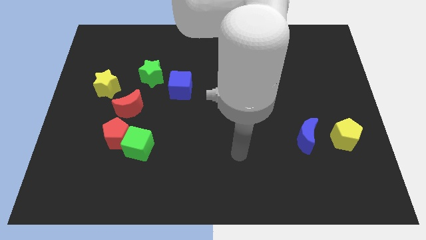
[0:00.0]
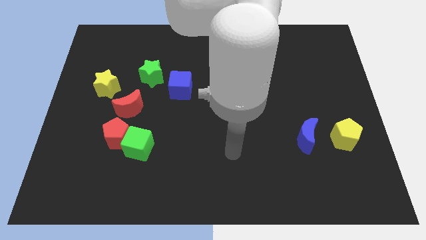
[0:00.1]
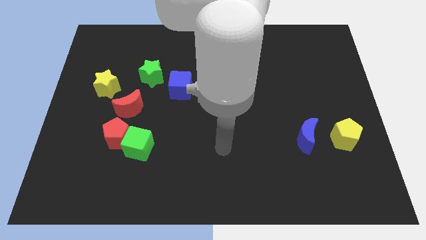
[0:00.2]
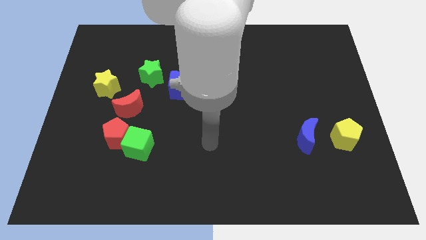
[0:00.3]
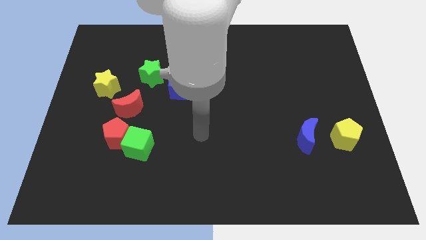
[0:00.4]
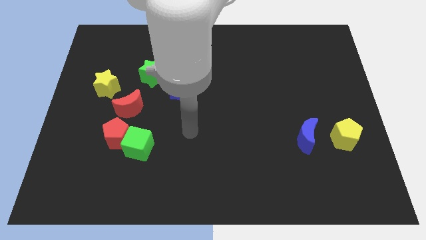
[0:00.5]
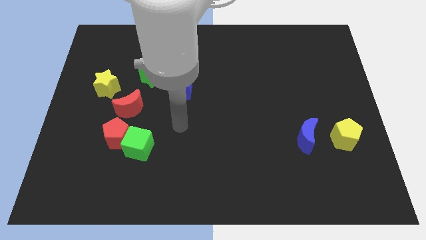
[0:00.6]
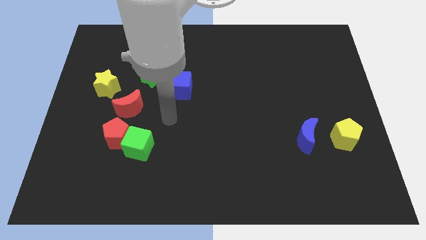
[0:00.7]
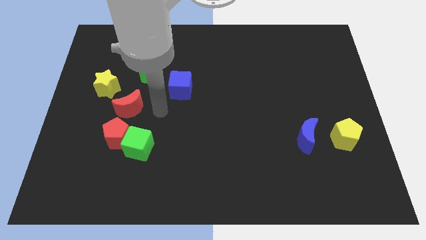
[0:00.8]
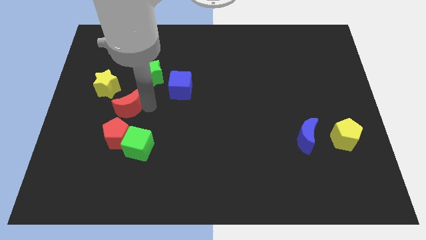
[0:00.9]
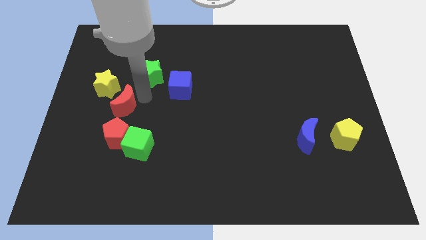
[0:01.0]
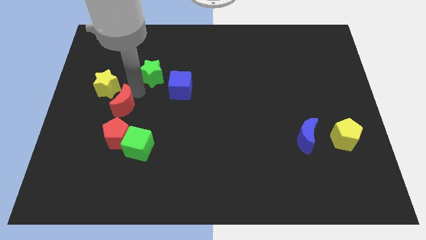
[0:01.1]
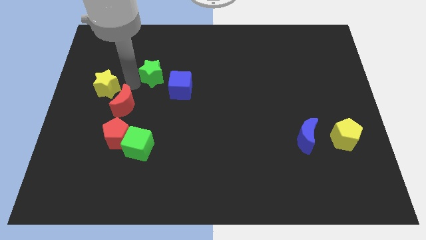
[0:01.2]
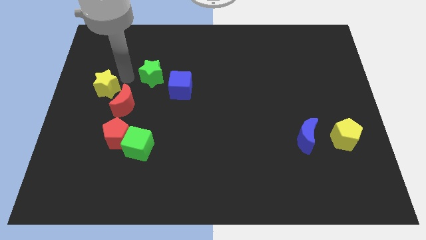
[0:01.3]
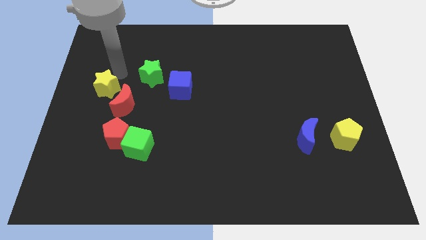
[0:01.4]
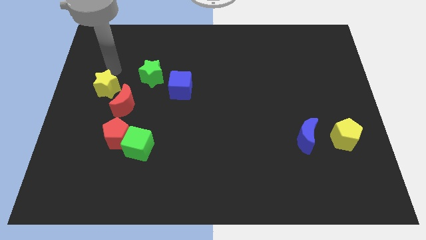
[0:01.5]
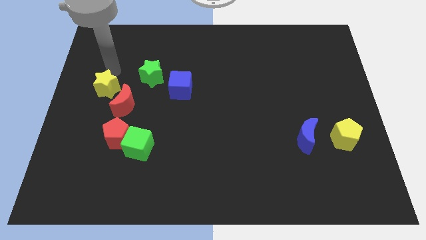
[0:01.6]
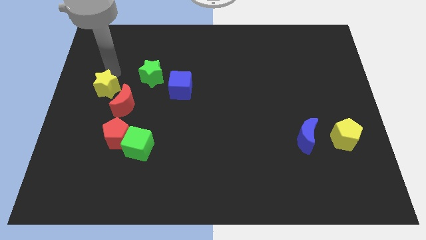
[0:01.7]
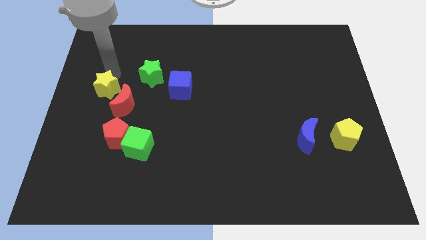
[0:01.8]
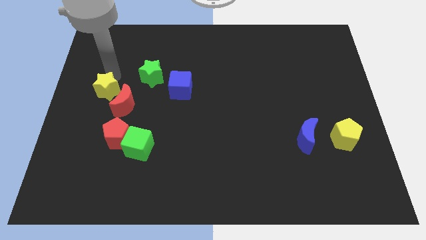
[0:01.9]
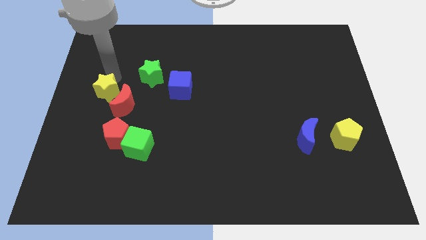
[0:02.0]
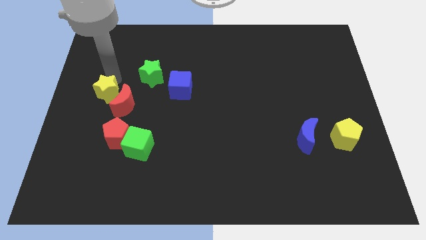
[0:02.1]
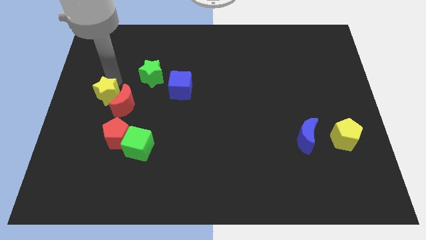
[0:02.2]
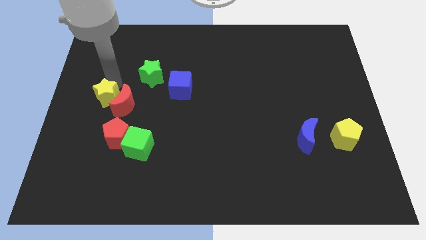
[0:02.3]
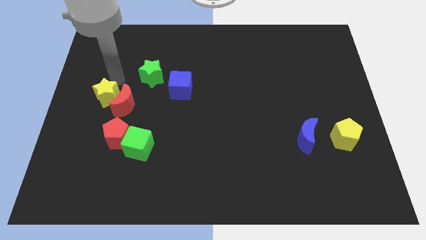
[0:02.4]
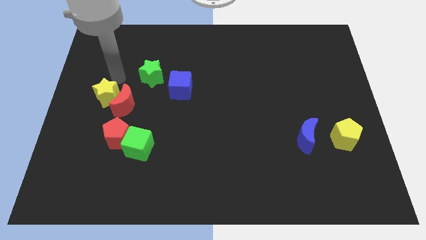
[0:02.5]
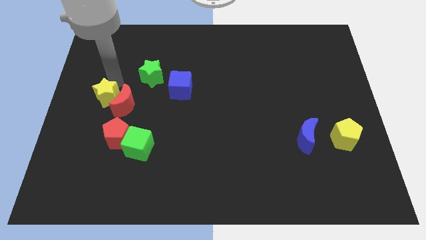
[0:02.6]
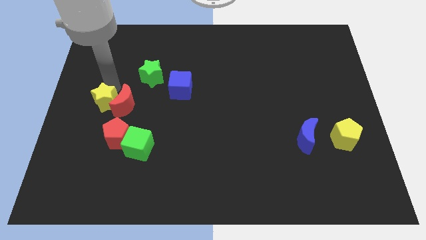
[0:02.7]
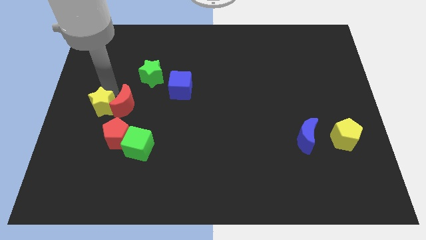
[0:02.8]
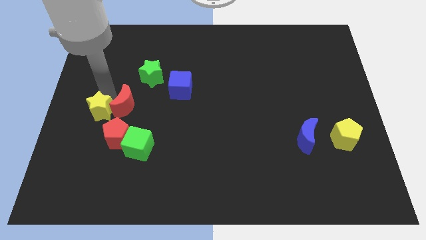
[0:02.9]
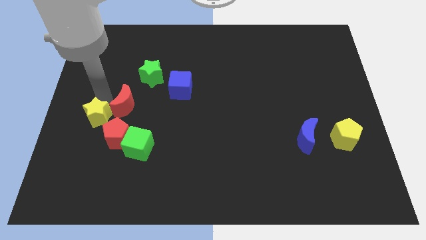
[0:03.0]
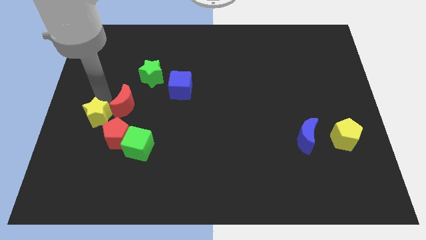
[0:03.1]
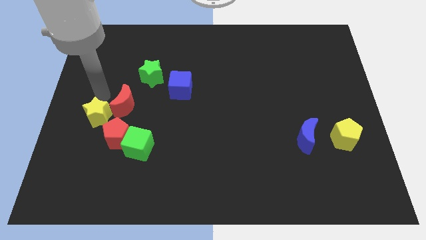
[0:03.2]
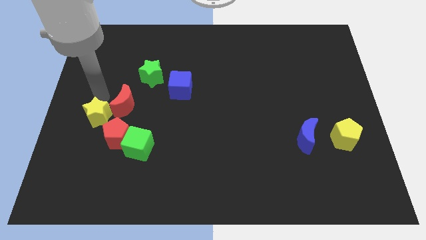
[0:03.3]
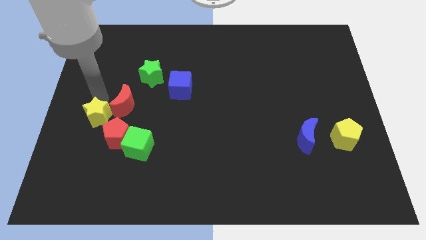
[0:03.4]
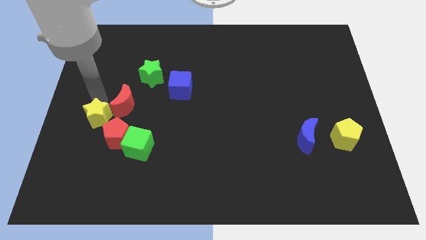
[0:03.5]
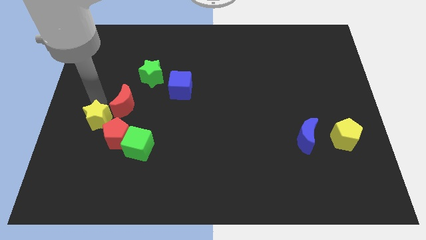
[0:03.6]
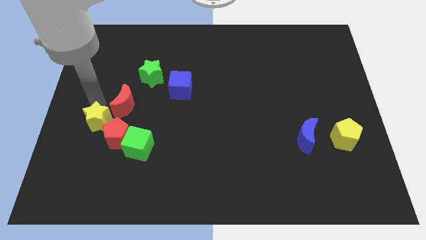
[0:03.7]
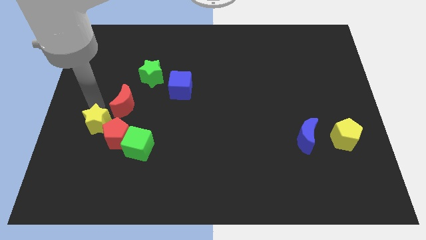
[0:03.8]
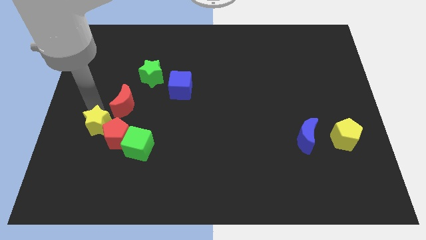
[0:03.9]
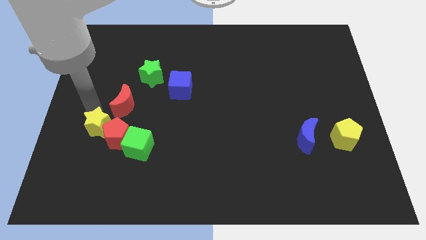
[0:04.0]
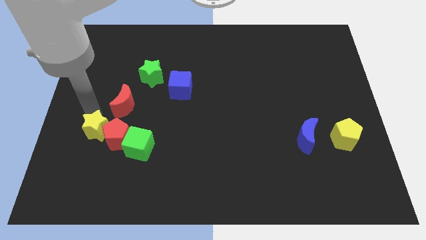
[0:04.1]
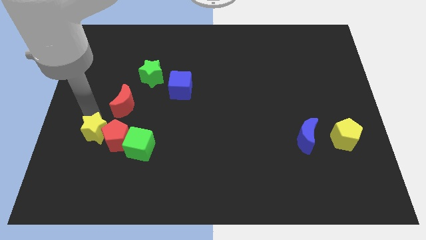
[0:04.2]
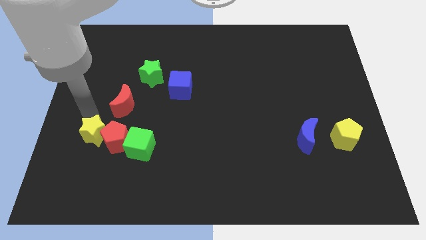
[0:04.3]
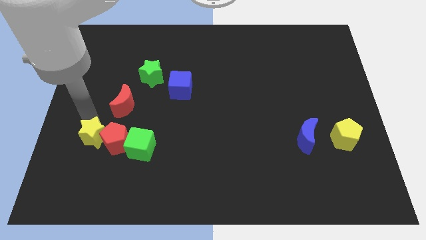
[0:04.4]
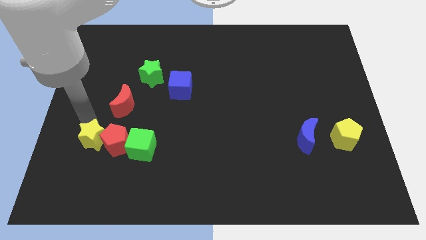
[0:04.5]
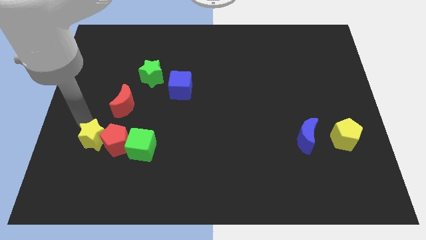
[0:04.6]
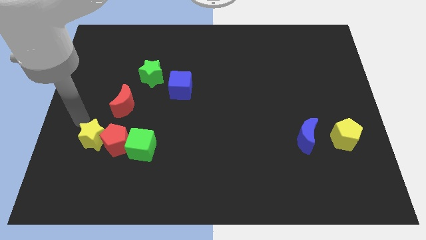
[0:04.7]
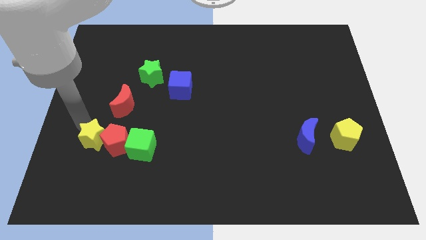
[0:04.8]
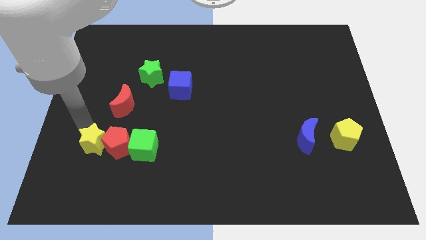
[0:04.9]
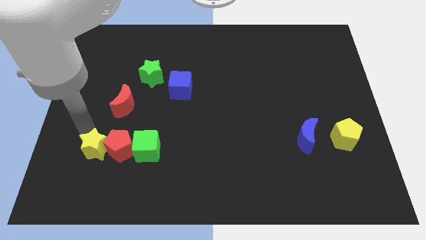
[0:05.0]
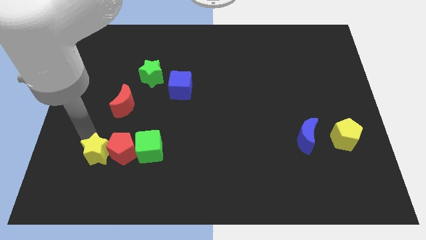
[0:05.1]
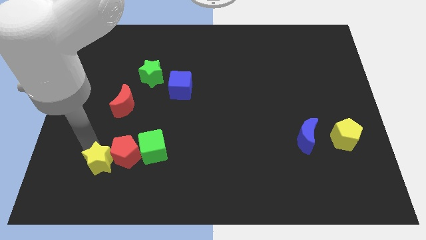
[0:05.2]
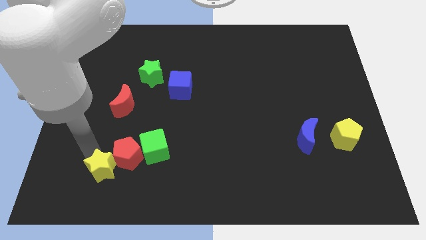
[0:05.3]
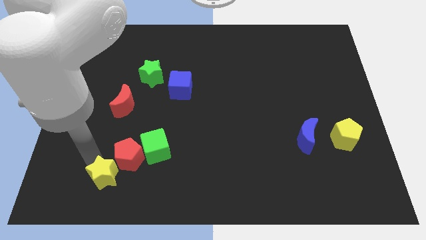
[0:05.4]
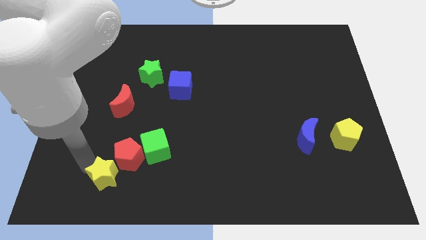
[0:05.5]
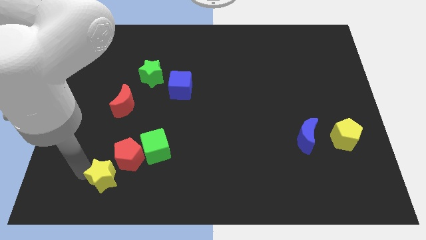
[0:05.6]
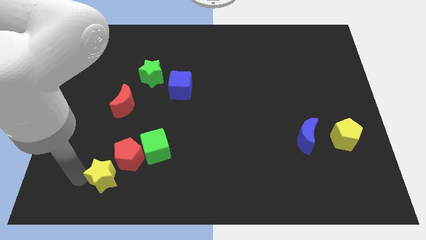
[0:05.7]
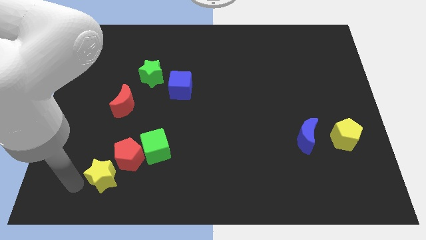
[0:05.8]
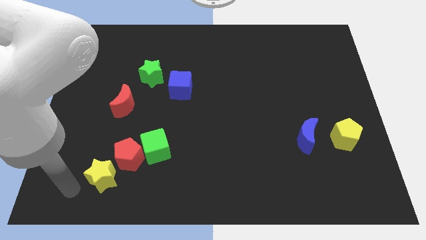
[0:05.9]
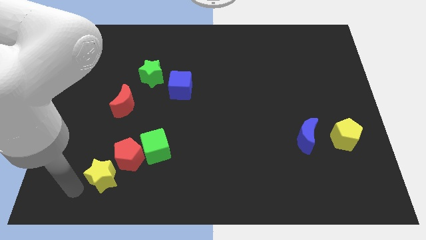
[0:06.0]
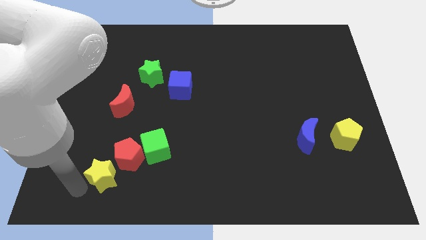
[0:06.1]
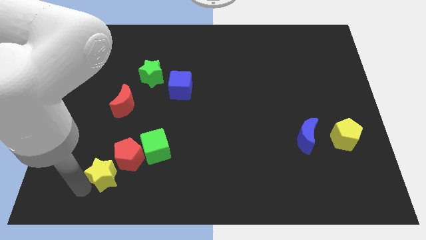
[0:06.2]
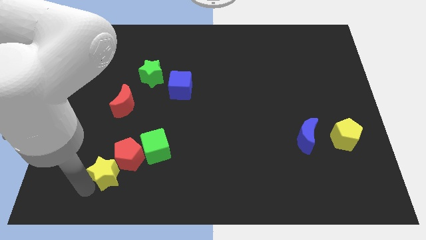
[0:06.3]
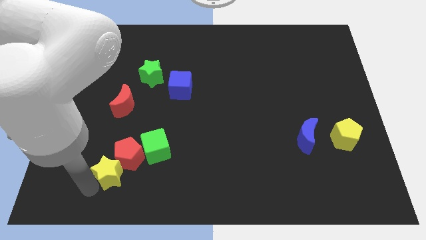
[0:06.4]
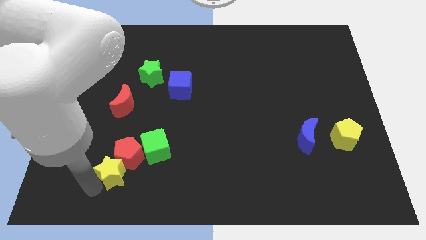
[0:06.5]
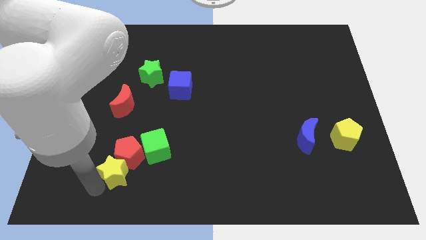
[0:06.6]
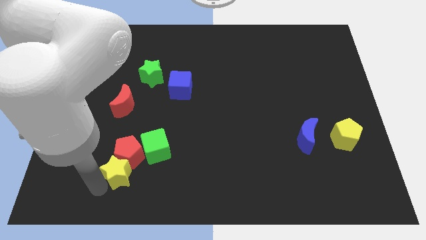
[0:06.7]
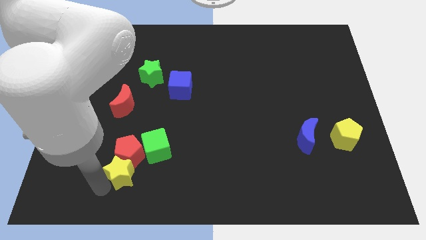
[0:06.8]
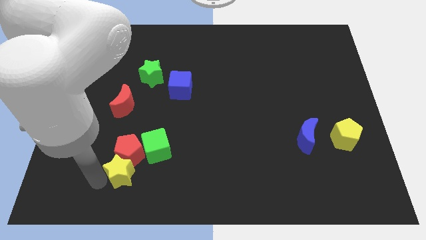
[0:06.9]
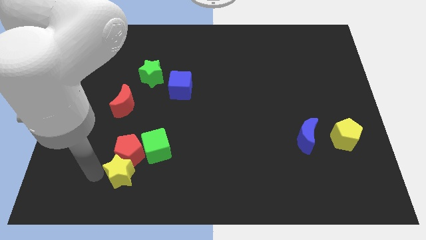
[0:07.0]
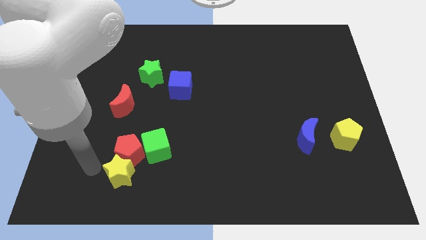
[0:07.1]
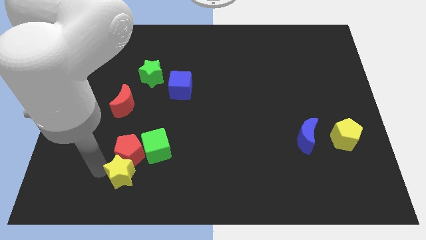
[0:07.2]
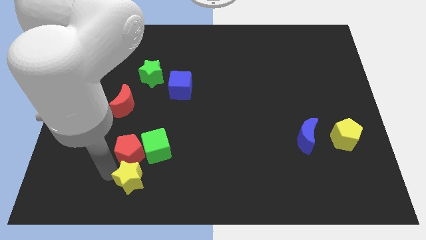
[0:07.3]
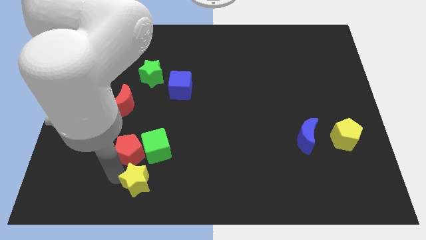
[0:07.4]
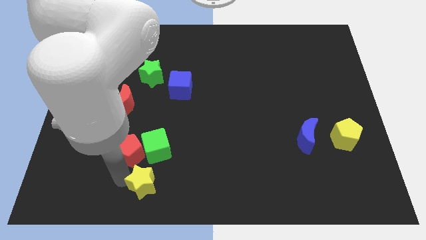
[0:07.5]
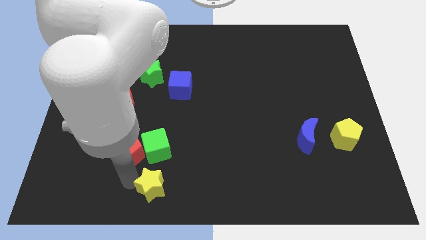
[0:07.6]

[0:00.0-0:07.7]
slide the yellow star to the bottom side
